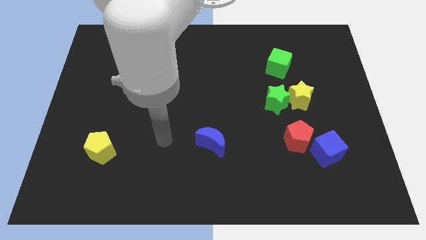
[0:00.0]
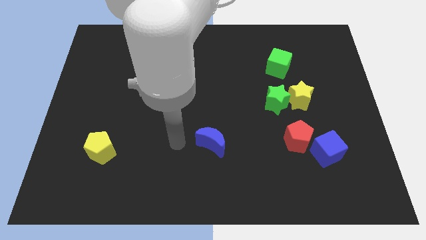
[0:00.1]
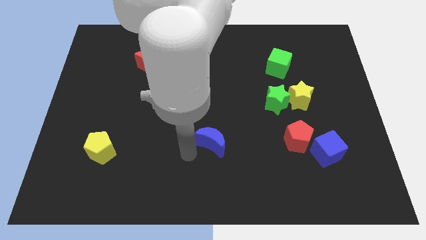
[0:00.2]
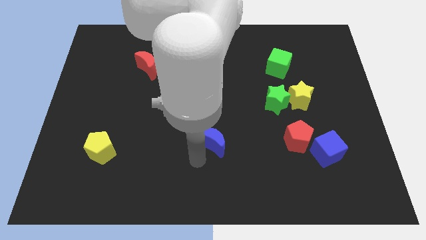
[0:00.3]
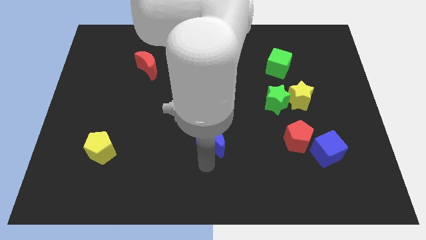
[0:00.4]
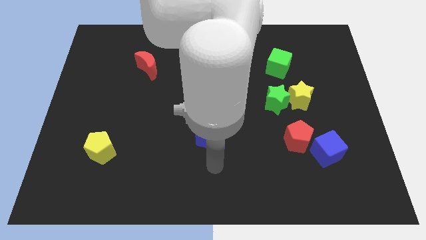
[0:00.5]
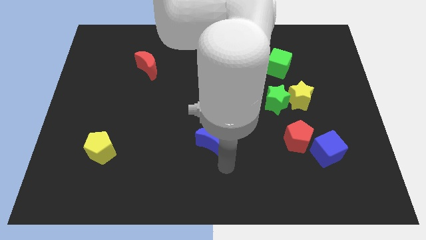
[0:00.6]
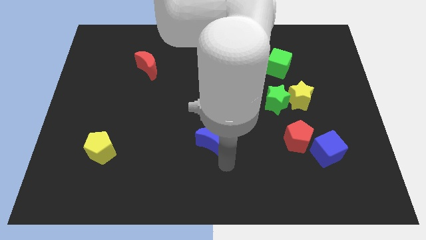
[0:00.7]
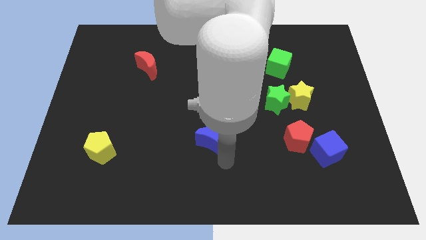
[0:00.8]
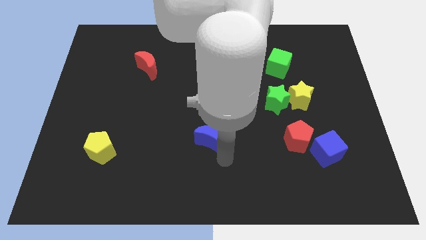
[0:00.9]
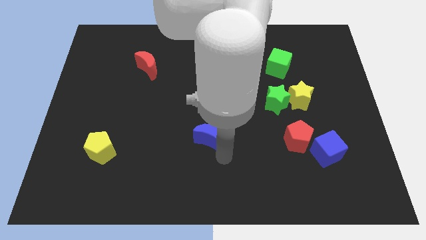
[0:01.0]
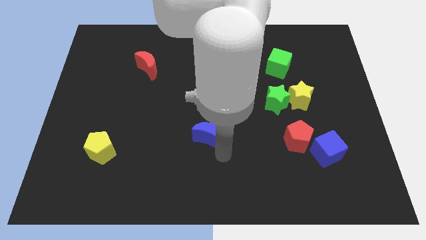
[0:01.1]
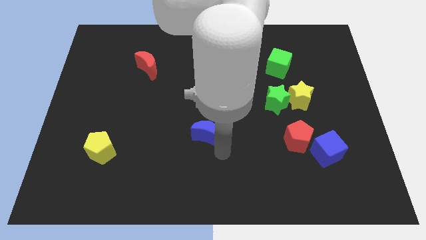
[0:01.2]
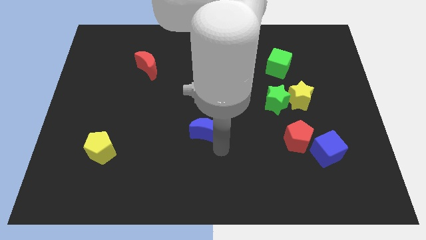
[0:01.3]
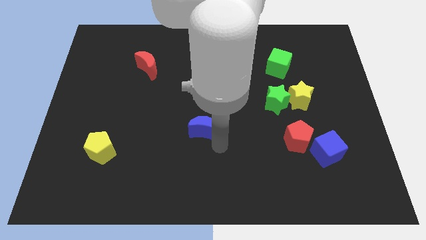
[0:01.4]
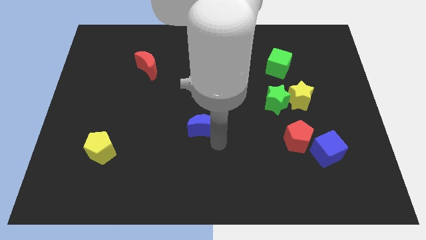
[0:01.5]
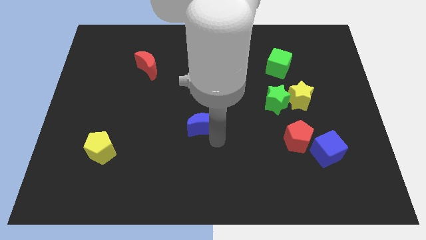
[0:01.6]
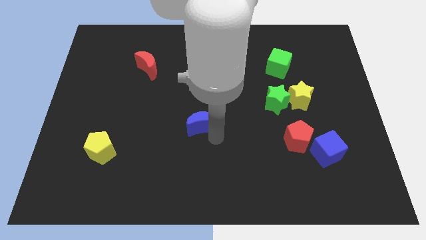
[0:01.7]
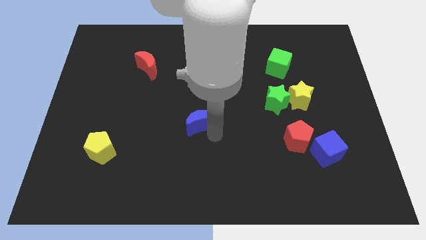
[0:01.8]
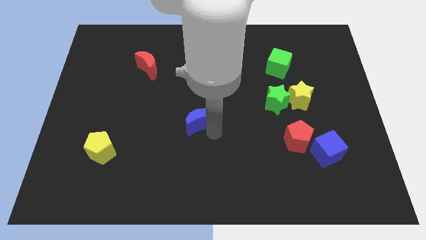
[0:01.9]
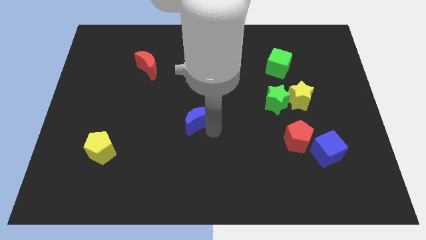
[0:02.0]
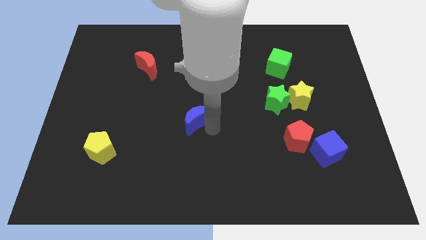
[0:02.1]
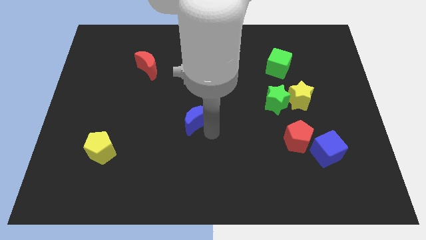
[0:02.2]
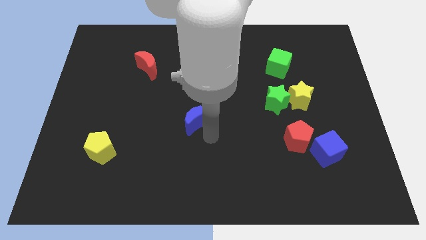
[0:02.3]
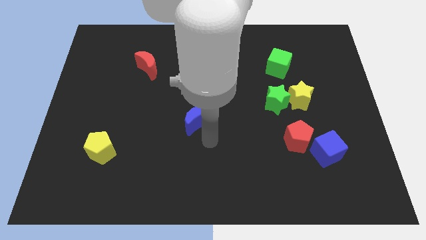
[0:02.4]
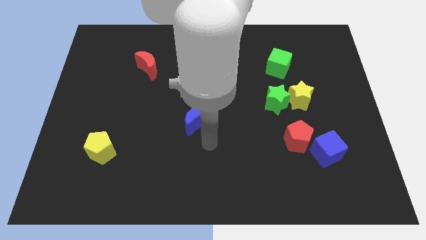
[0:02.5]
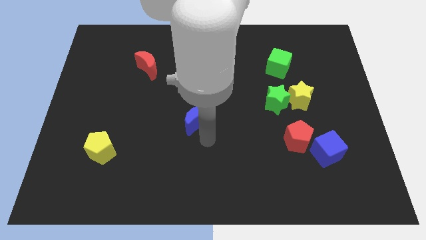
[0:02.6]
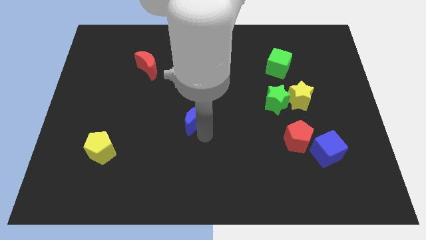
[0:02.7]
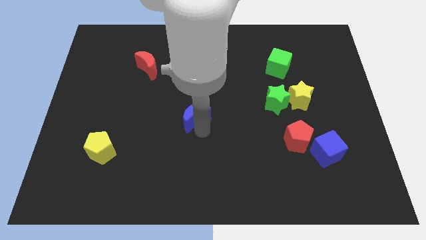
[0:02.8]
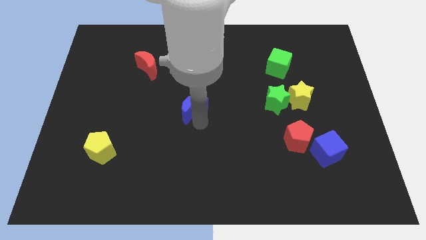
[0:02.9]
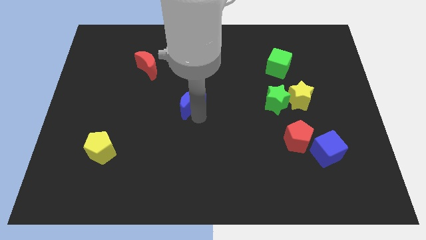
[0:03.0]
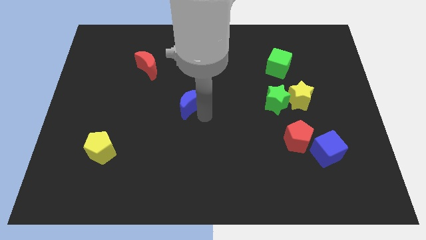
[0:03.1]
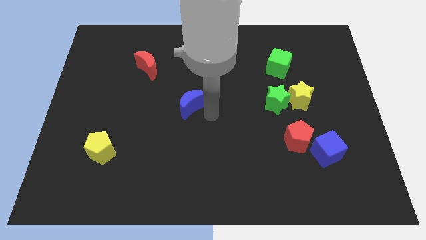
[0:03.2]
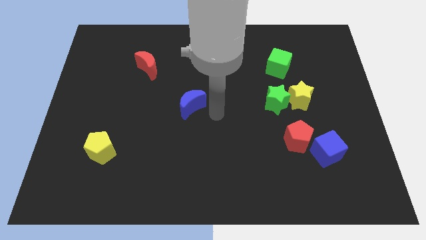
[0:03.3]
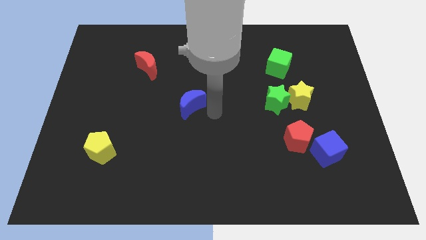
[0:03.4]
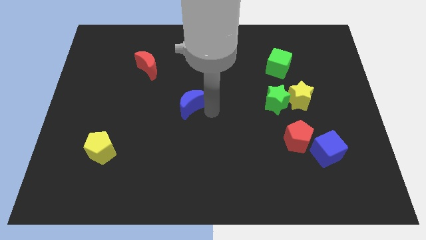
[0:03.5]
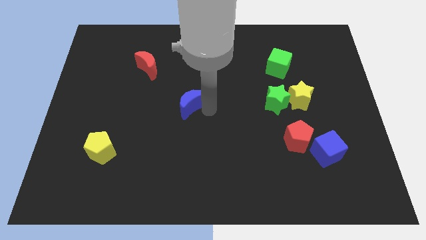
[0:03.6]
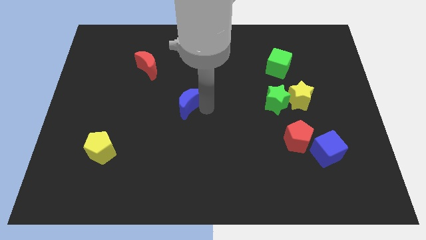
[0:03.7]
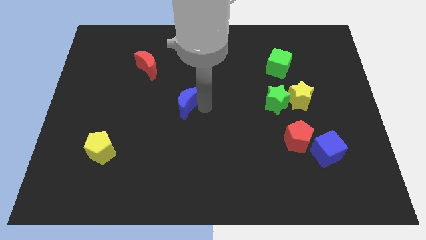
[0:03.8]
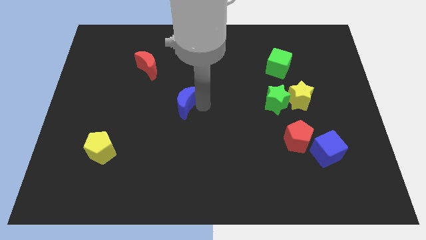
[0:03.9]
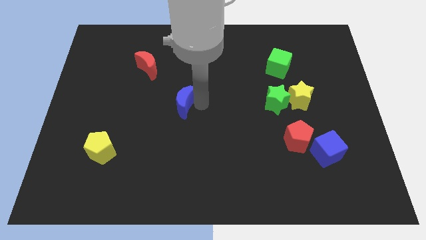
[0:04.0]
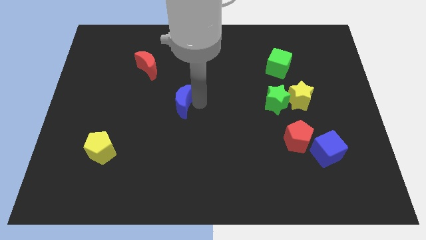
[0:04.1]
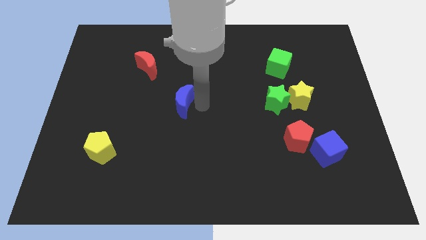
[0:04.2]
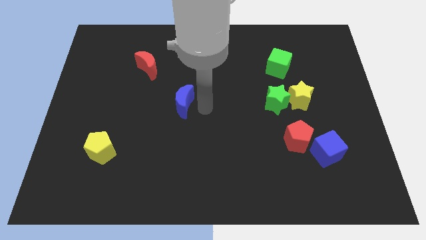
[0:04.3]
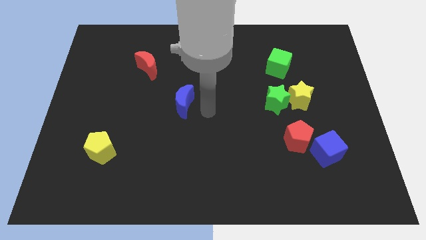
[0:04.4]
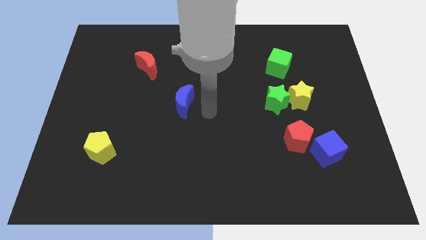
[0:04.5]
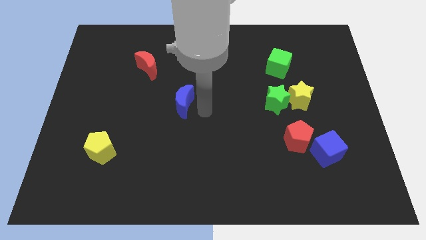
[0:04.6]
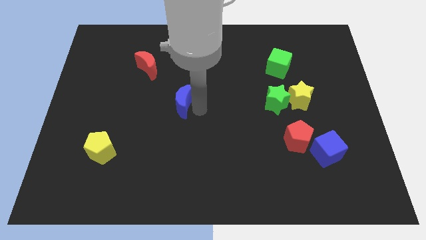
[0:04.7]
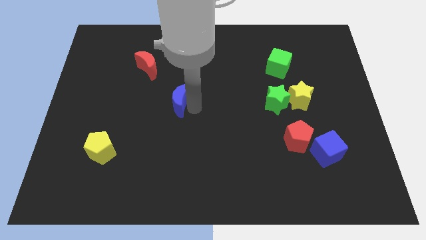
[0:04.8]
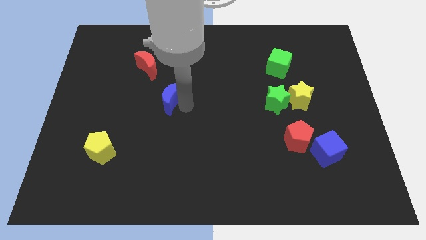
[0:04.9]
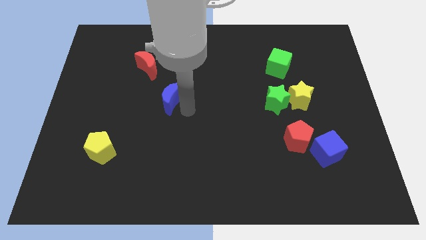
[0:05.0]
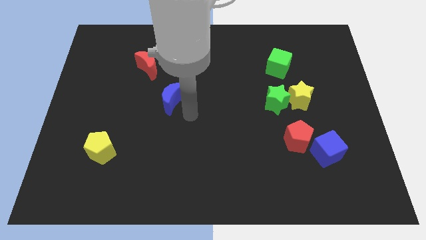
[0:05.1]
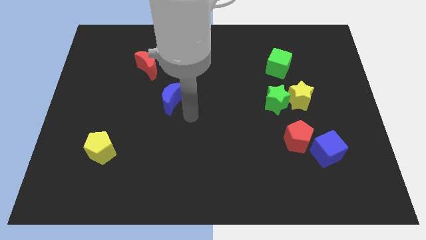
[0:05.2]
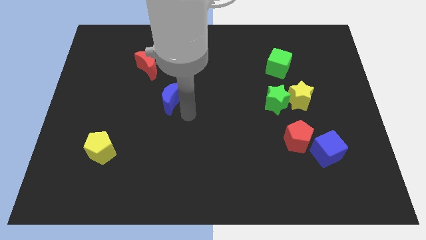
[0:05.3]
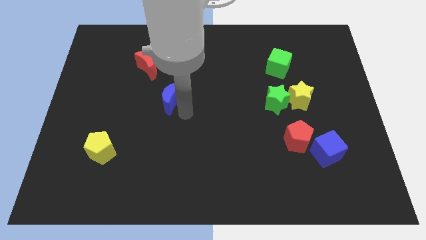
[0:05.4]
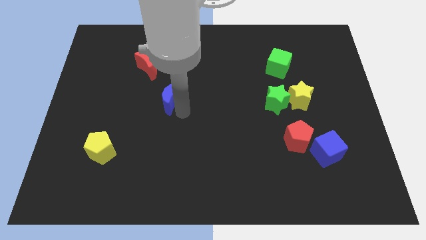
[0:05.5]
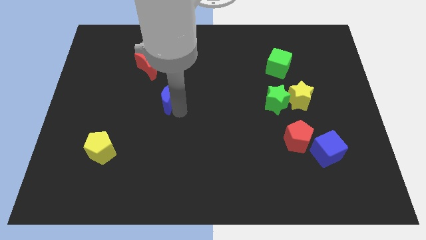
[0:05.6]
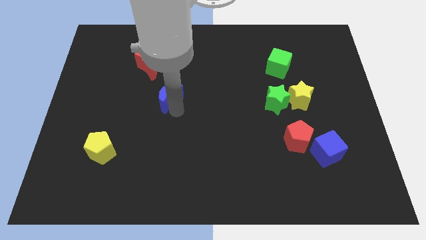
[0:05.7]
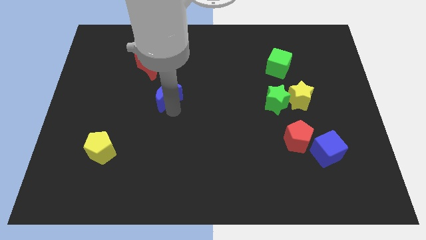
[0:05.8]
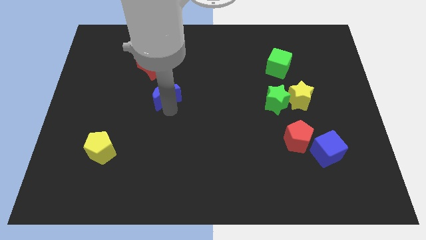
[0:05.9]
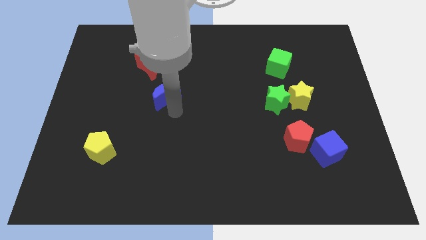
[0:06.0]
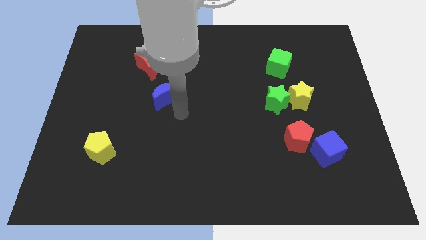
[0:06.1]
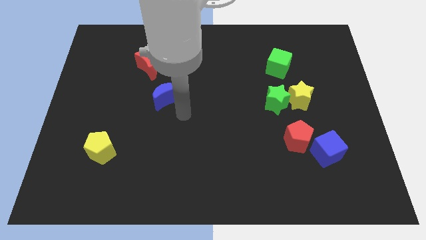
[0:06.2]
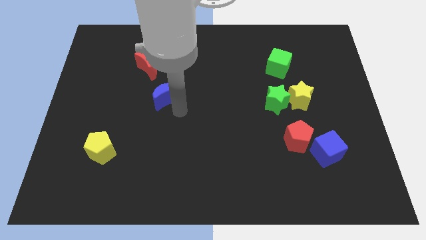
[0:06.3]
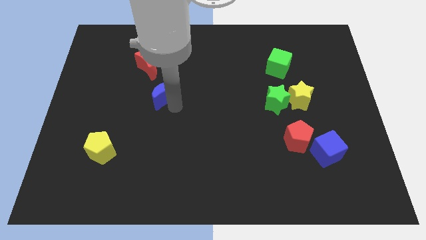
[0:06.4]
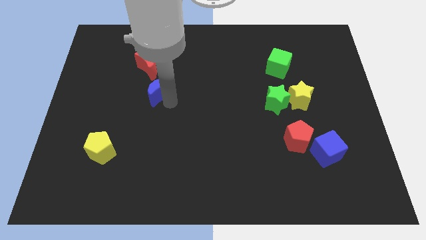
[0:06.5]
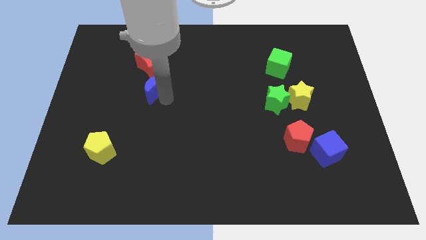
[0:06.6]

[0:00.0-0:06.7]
slide the blue moon upwards and left diagonally

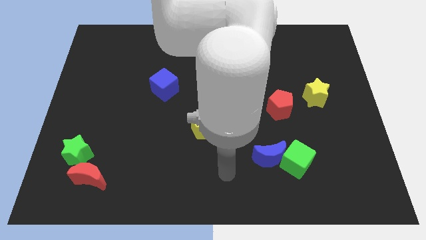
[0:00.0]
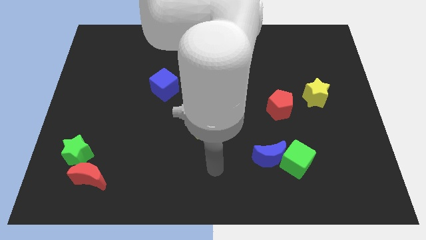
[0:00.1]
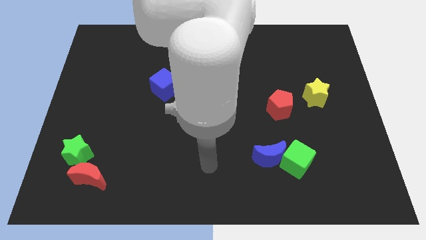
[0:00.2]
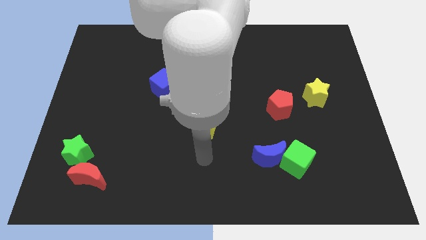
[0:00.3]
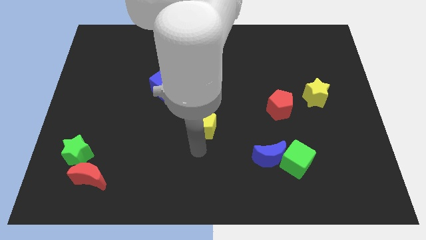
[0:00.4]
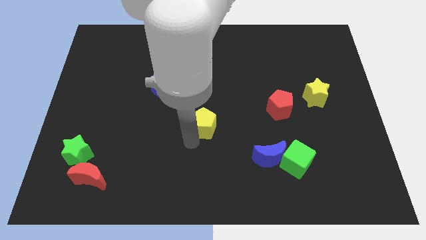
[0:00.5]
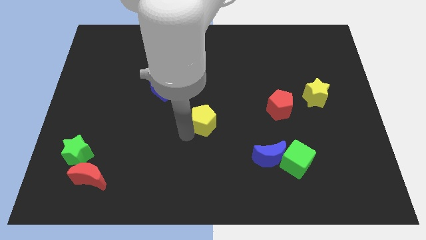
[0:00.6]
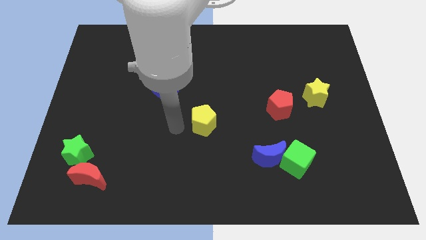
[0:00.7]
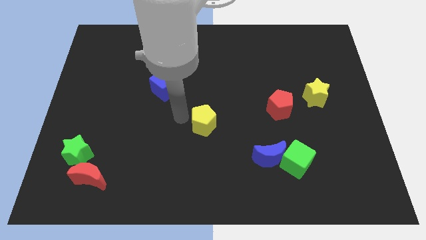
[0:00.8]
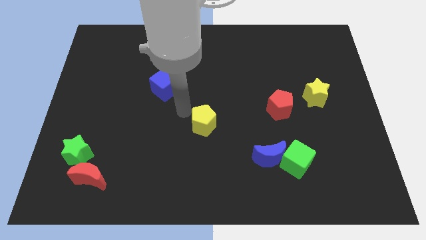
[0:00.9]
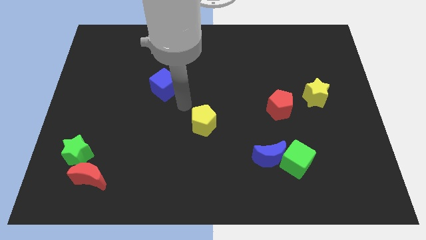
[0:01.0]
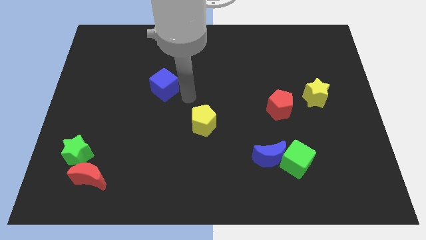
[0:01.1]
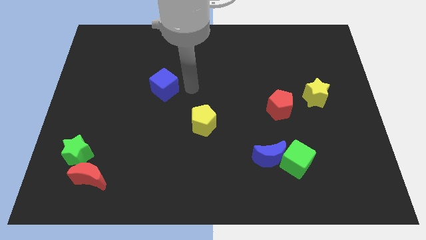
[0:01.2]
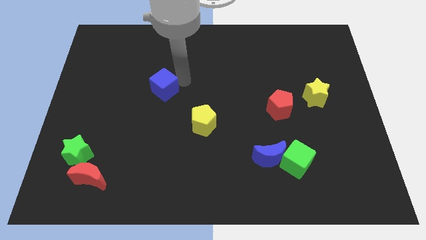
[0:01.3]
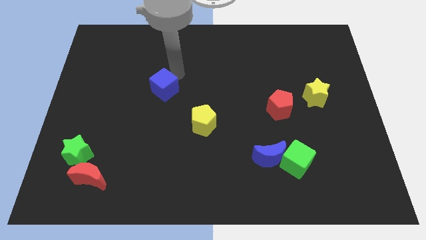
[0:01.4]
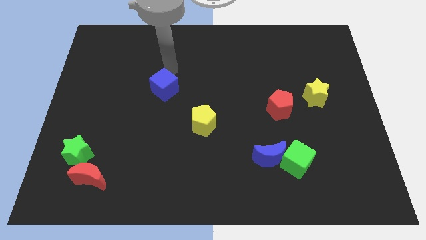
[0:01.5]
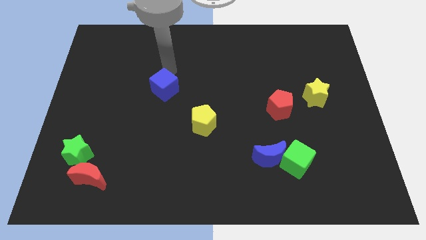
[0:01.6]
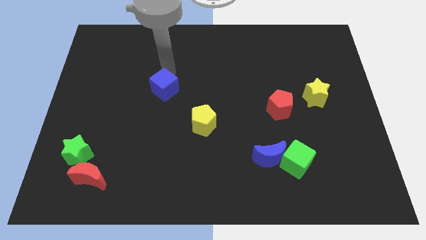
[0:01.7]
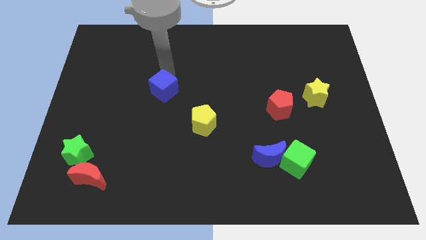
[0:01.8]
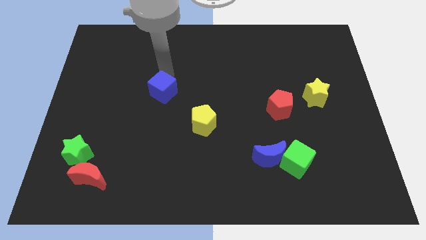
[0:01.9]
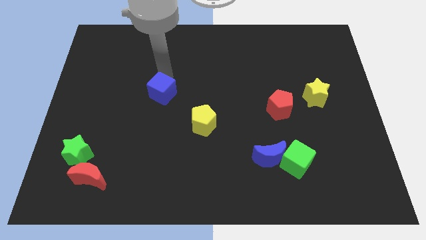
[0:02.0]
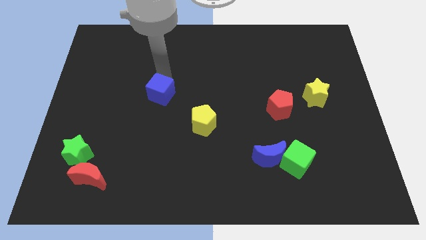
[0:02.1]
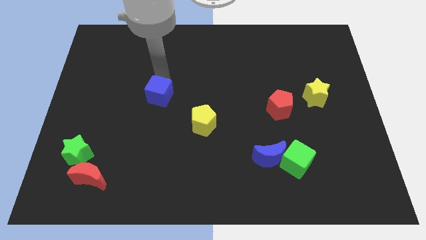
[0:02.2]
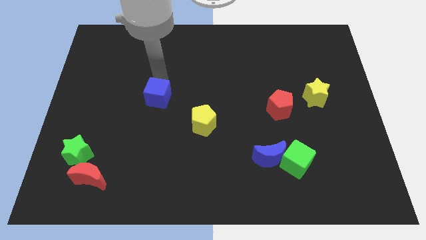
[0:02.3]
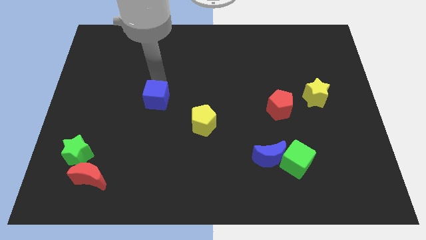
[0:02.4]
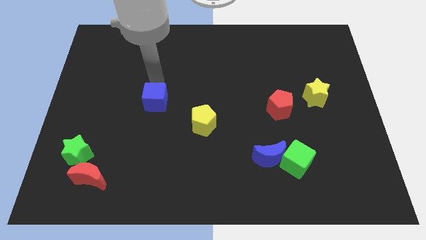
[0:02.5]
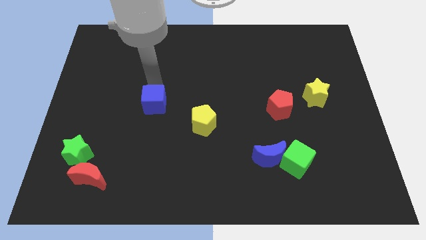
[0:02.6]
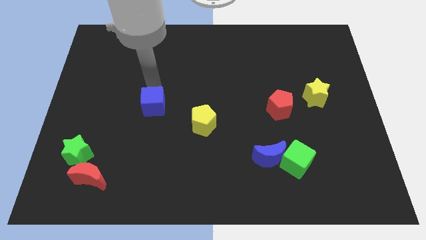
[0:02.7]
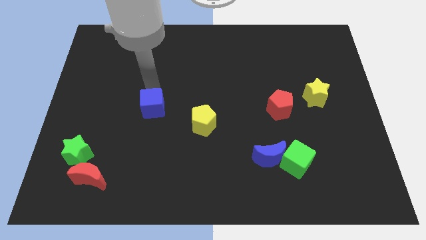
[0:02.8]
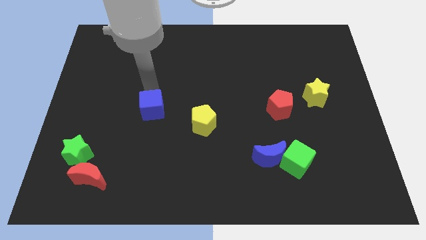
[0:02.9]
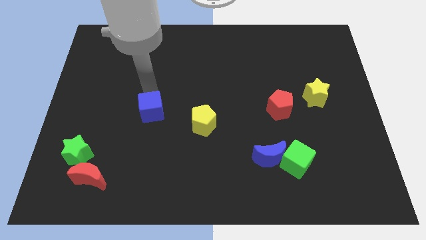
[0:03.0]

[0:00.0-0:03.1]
move the blue cube downwards slightly
